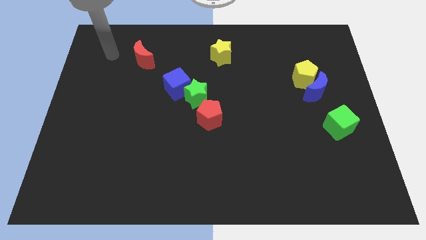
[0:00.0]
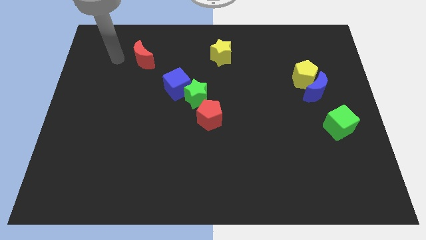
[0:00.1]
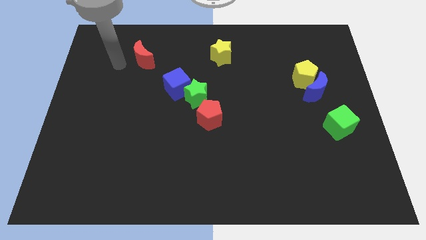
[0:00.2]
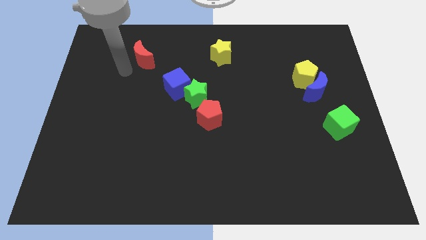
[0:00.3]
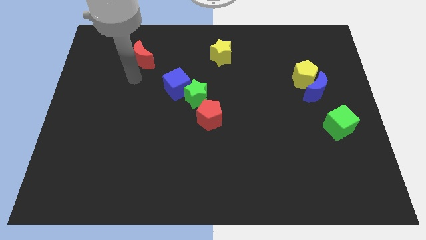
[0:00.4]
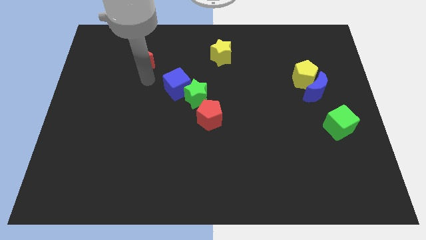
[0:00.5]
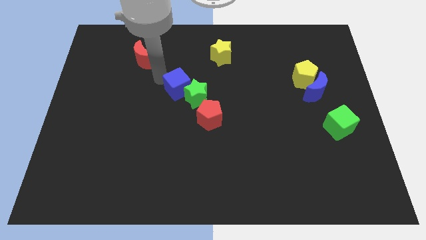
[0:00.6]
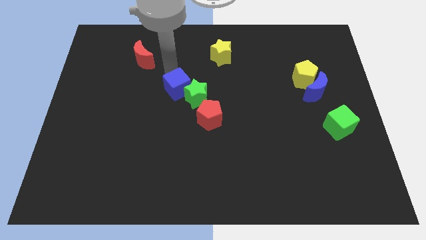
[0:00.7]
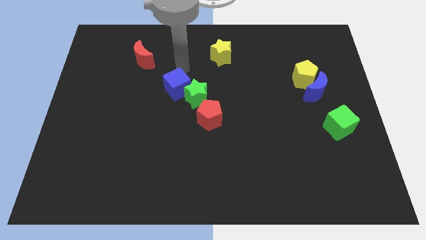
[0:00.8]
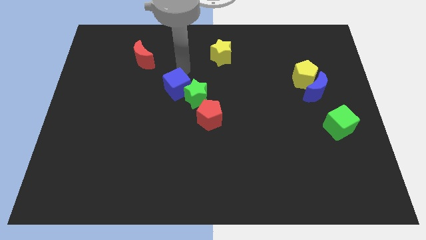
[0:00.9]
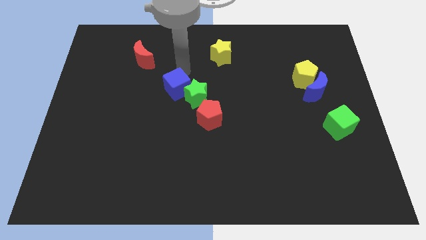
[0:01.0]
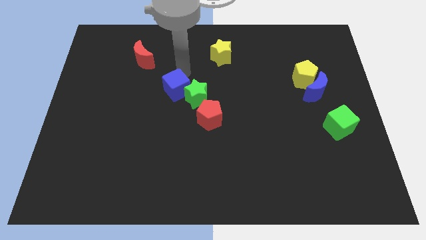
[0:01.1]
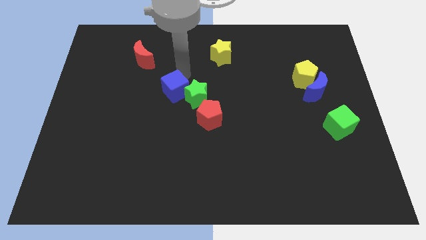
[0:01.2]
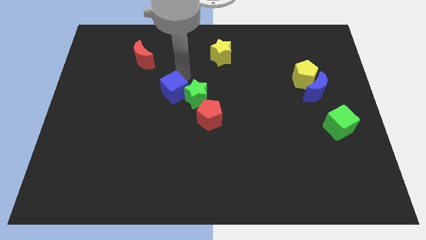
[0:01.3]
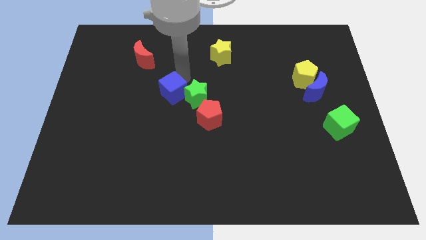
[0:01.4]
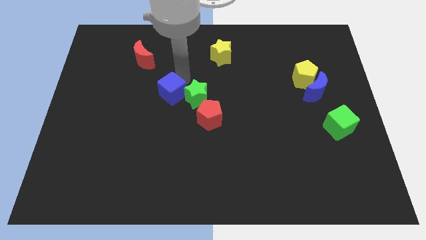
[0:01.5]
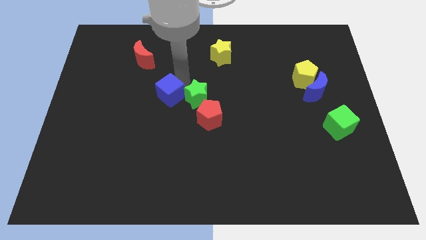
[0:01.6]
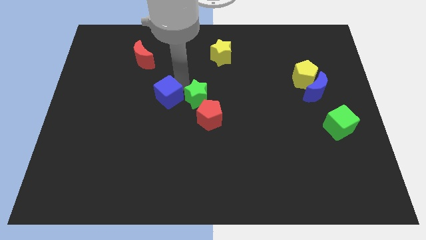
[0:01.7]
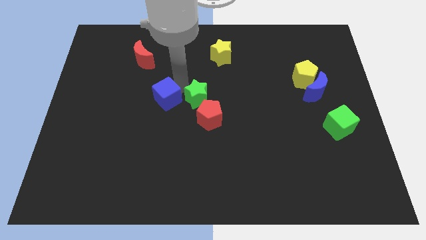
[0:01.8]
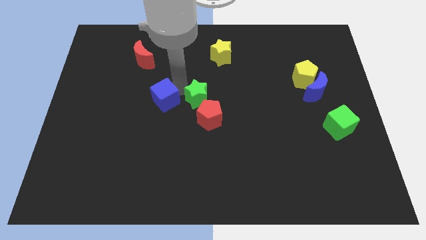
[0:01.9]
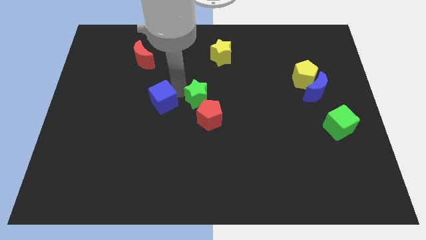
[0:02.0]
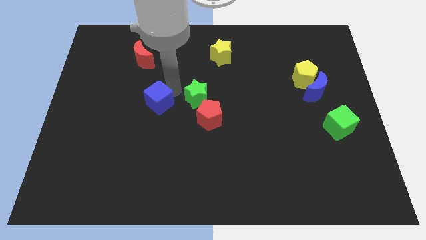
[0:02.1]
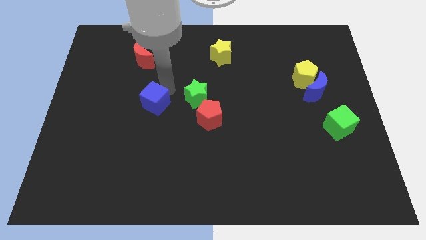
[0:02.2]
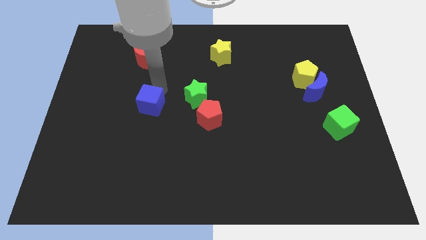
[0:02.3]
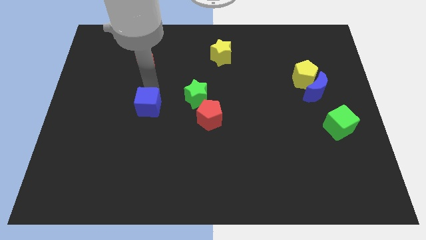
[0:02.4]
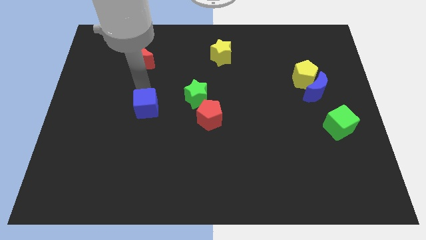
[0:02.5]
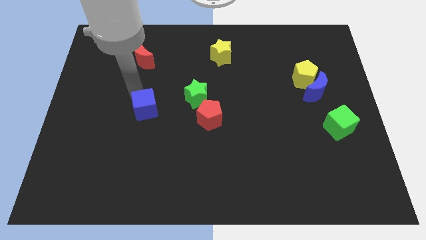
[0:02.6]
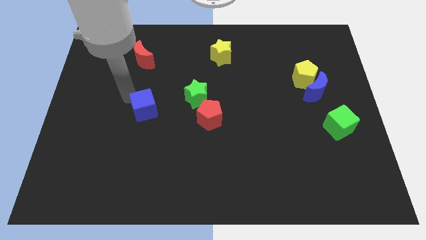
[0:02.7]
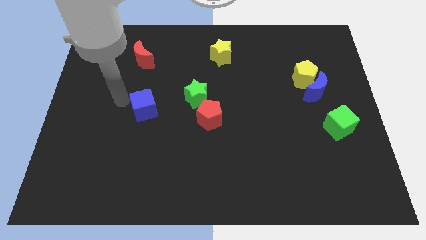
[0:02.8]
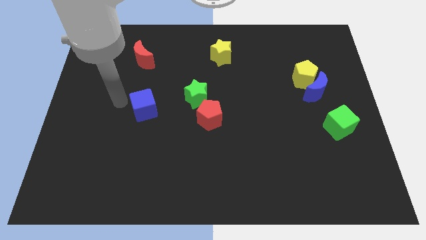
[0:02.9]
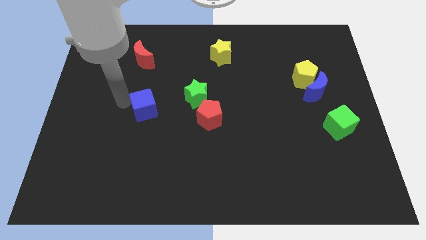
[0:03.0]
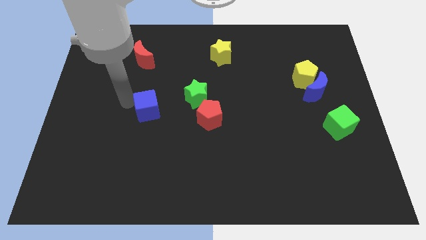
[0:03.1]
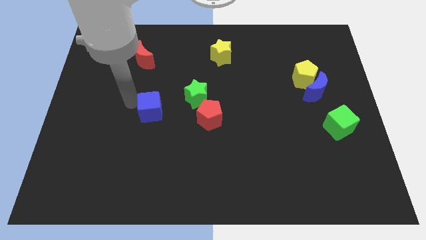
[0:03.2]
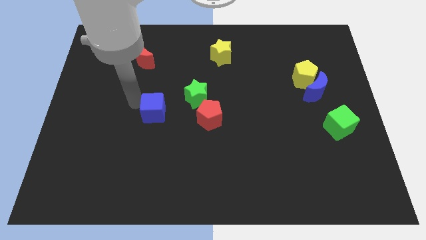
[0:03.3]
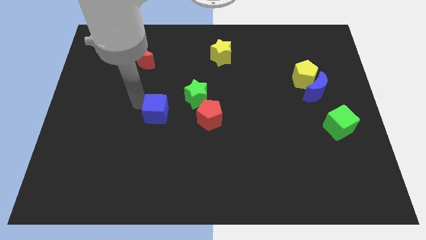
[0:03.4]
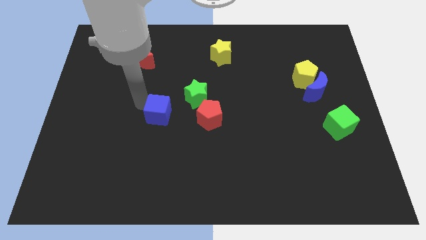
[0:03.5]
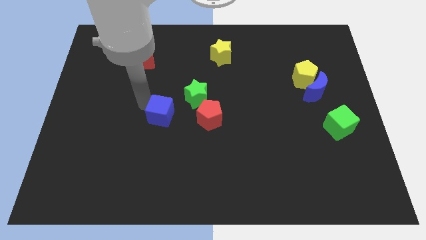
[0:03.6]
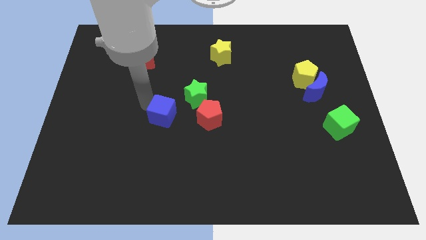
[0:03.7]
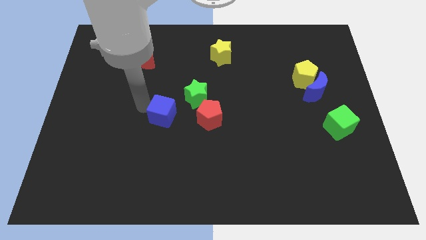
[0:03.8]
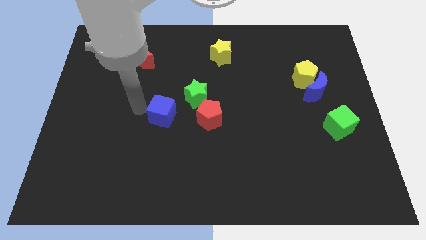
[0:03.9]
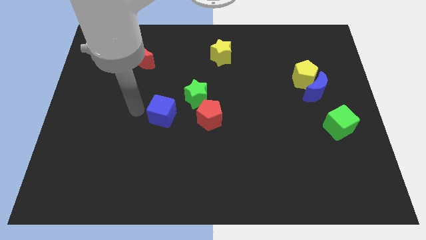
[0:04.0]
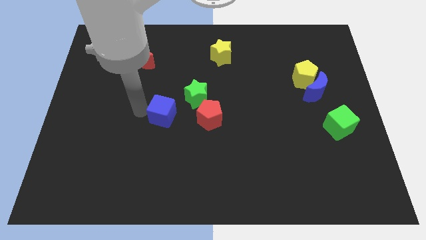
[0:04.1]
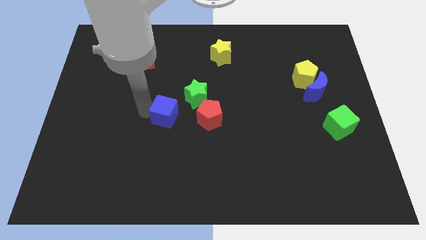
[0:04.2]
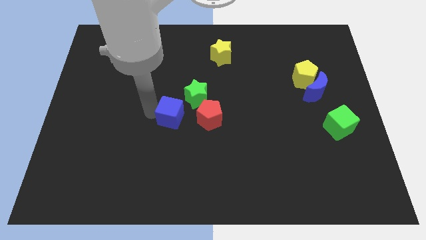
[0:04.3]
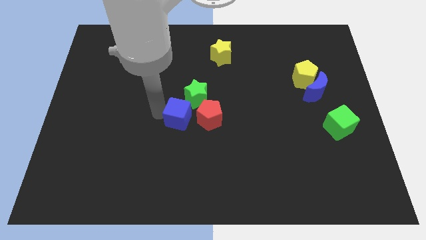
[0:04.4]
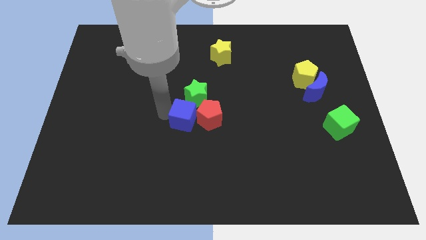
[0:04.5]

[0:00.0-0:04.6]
push the blue cube a bit diagonally downwards and right

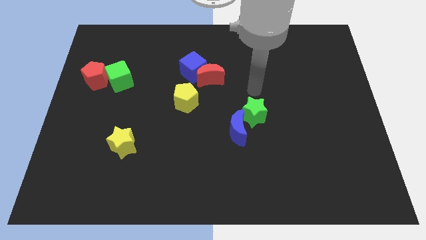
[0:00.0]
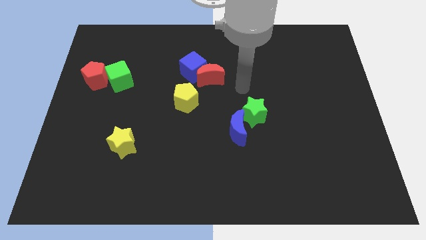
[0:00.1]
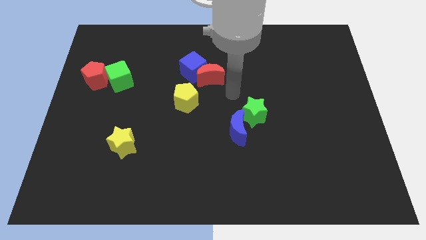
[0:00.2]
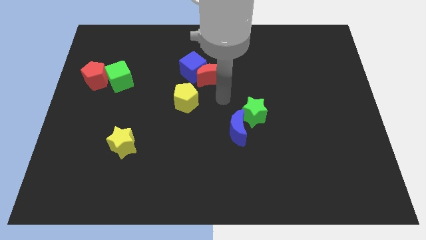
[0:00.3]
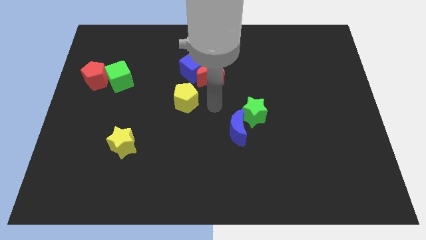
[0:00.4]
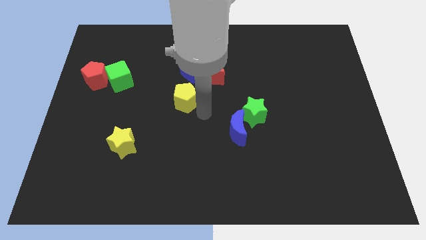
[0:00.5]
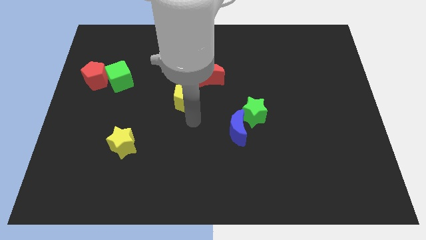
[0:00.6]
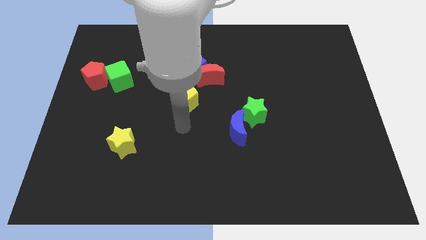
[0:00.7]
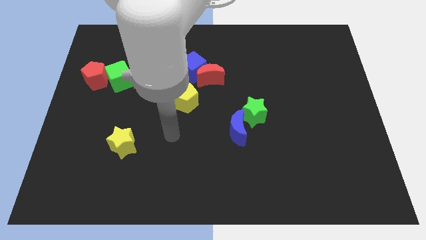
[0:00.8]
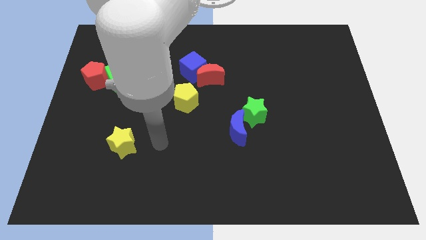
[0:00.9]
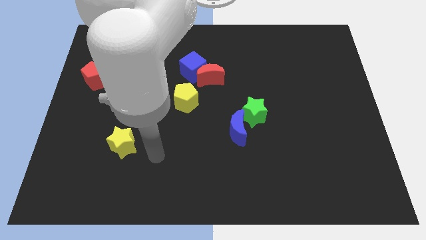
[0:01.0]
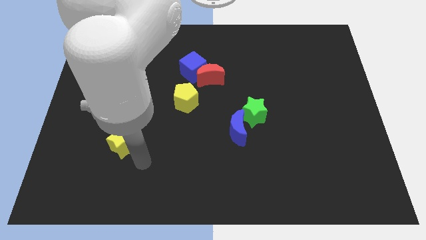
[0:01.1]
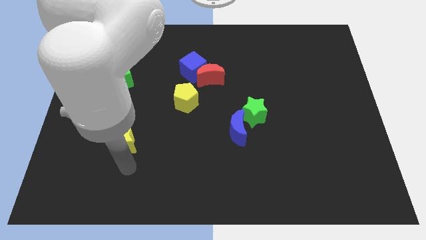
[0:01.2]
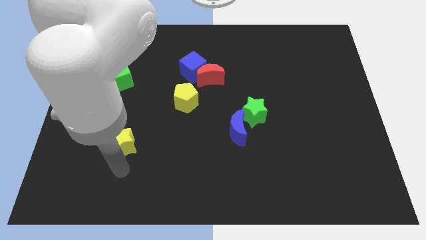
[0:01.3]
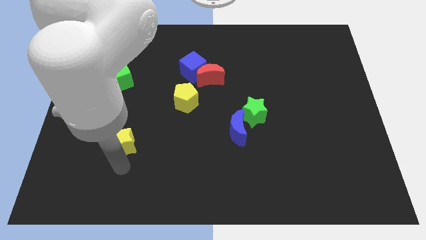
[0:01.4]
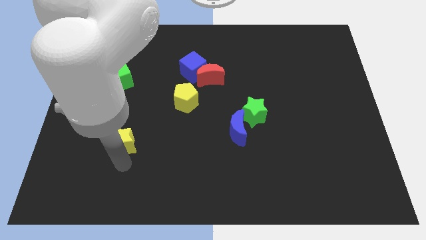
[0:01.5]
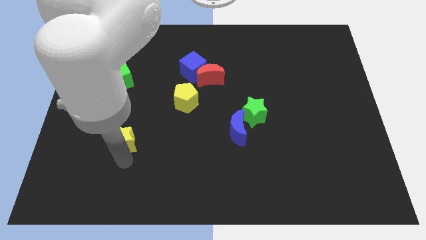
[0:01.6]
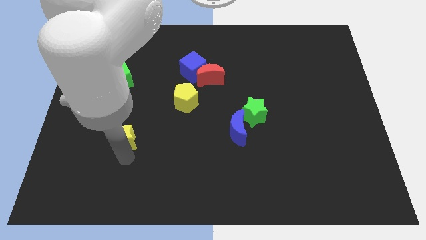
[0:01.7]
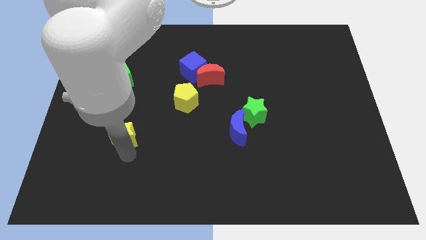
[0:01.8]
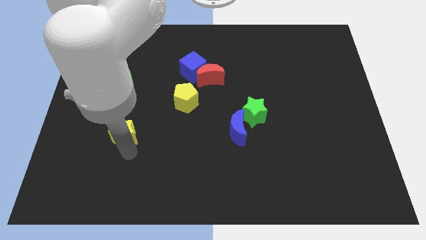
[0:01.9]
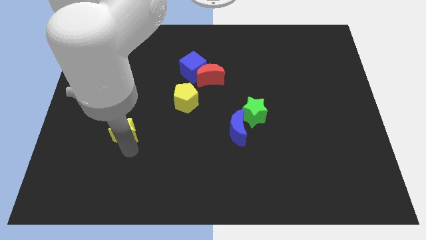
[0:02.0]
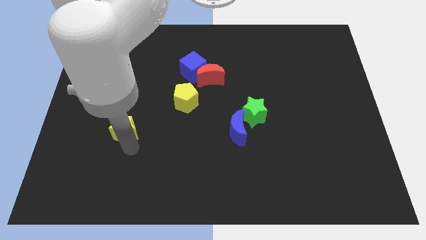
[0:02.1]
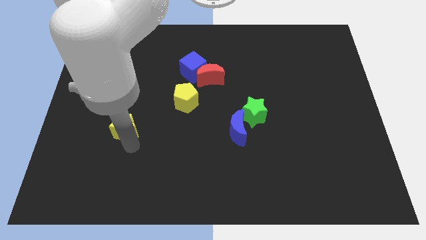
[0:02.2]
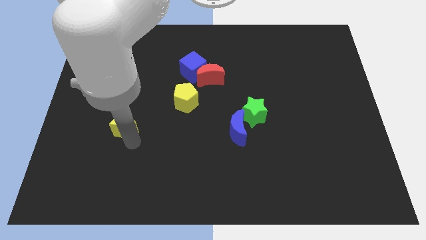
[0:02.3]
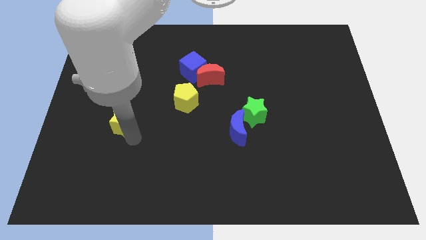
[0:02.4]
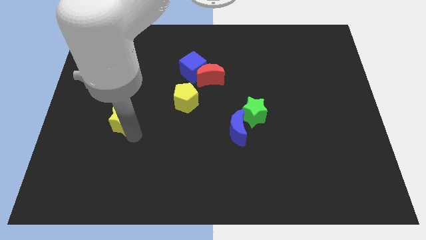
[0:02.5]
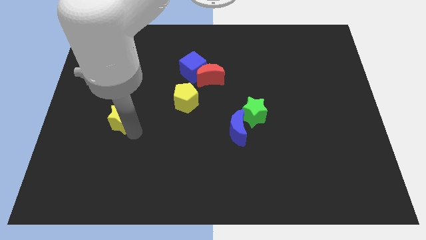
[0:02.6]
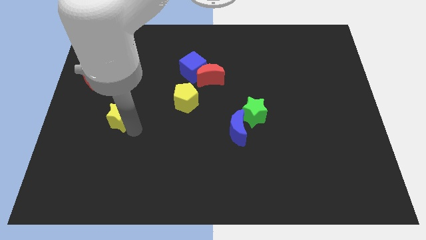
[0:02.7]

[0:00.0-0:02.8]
slide the yellow star somewhat up

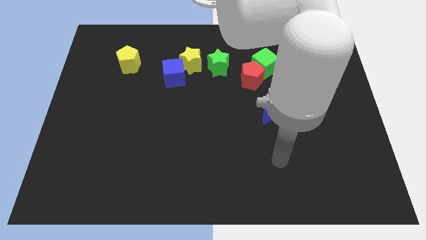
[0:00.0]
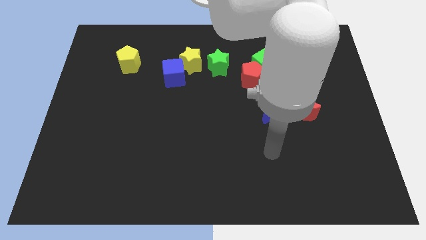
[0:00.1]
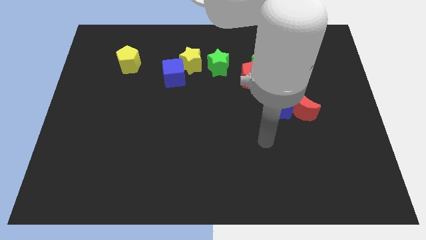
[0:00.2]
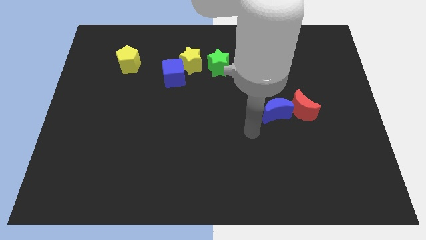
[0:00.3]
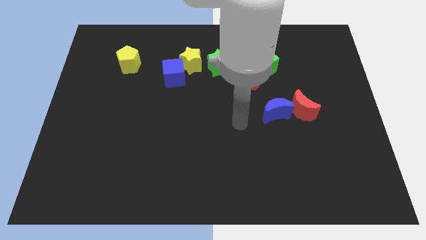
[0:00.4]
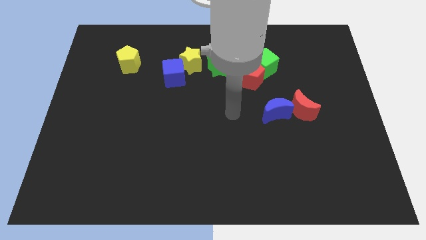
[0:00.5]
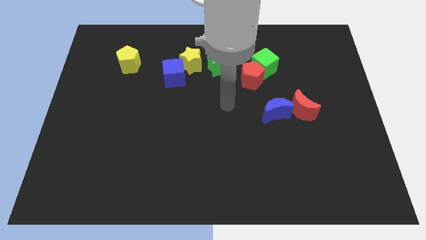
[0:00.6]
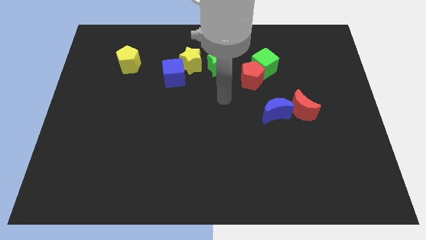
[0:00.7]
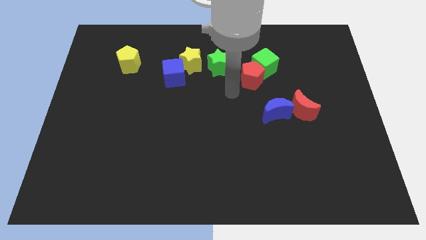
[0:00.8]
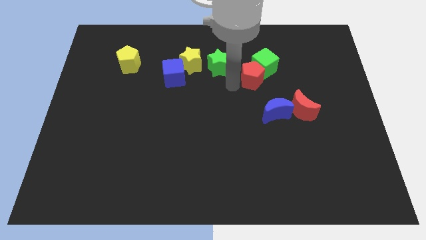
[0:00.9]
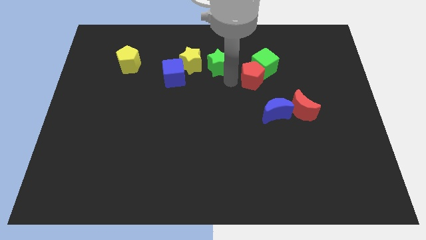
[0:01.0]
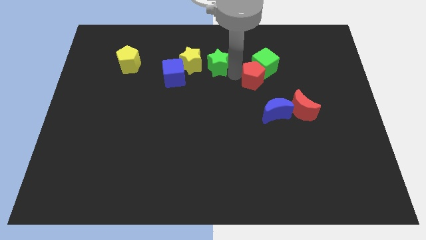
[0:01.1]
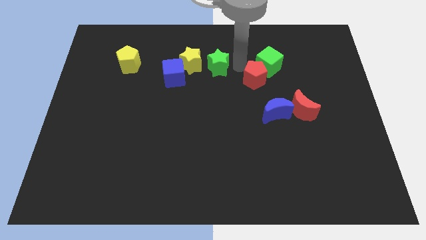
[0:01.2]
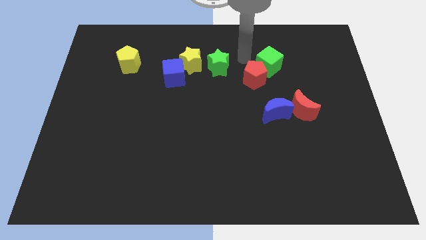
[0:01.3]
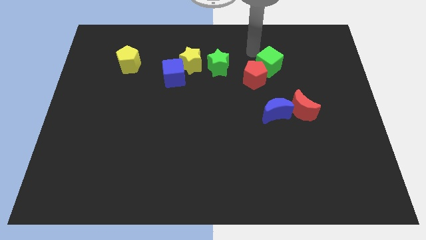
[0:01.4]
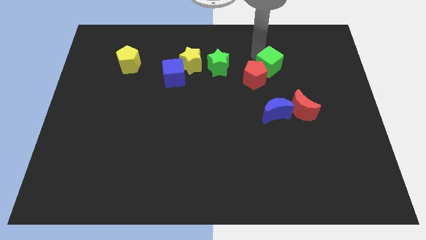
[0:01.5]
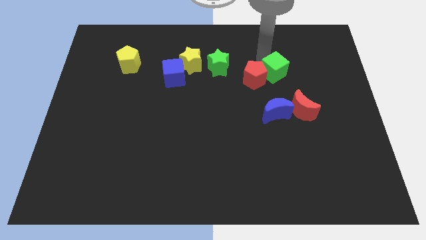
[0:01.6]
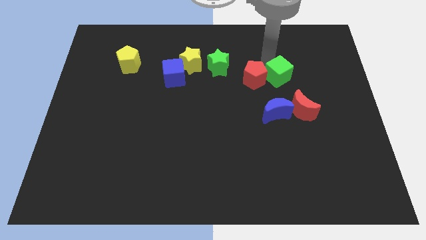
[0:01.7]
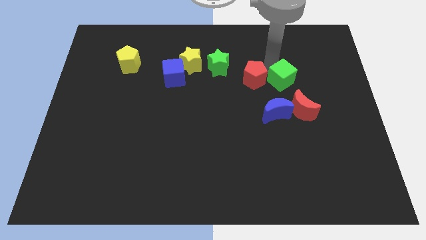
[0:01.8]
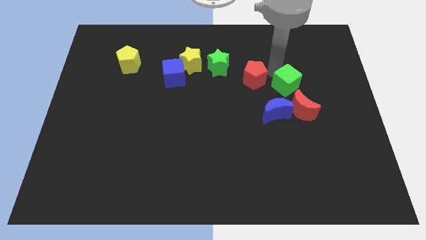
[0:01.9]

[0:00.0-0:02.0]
move the green cube a little diagonally down and to the right
